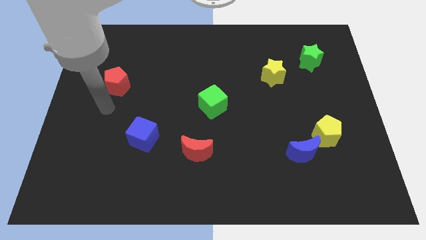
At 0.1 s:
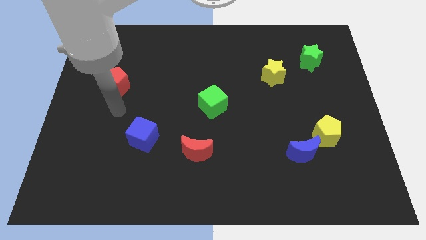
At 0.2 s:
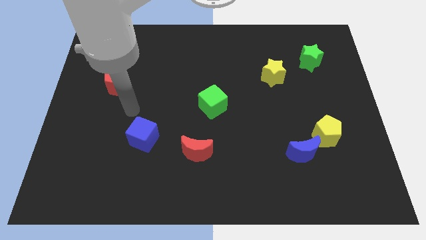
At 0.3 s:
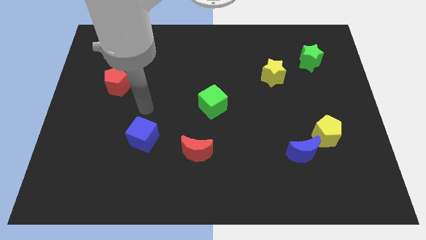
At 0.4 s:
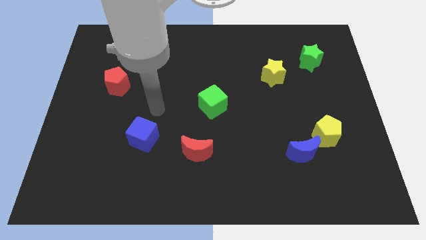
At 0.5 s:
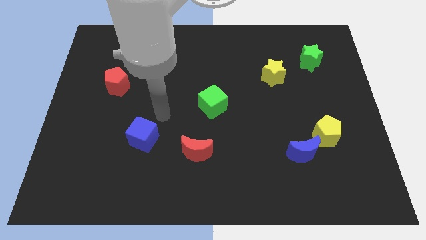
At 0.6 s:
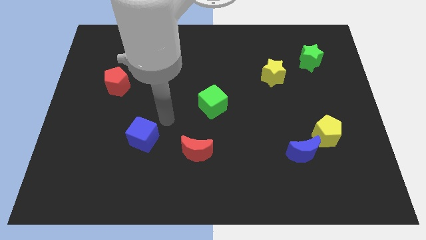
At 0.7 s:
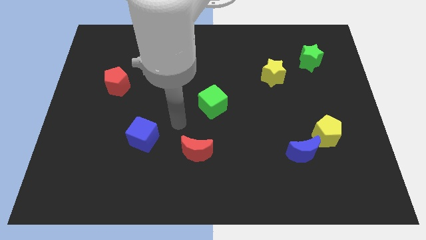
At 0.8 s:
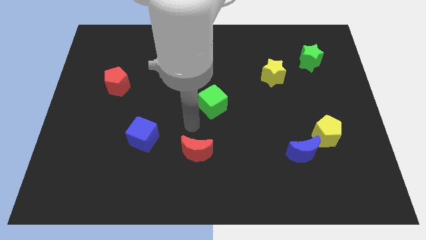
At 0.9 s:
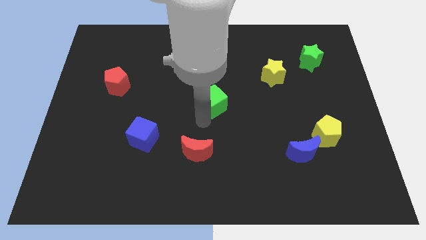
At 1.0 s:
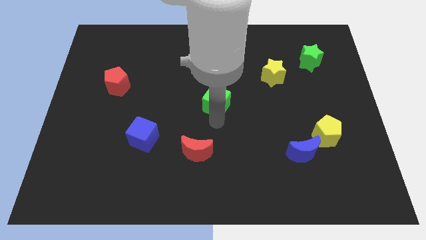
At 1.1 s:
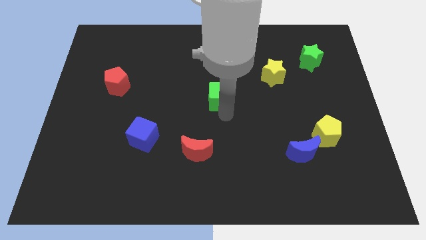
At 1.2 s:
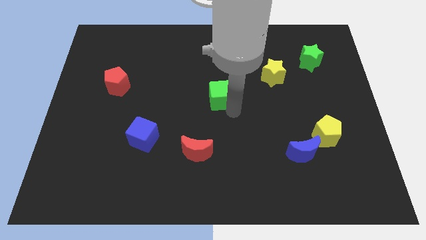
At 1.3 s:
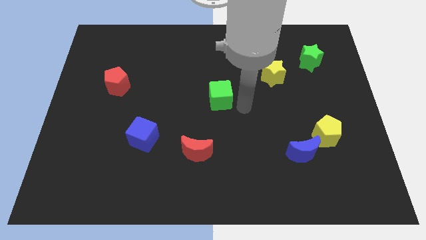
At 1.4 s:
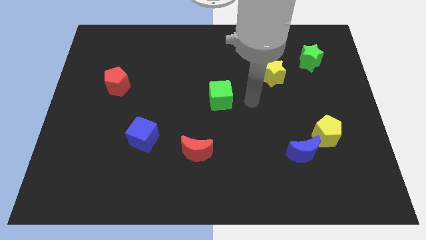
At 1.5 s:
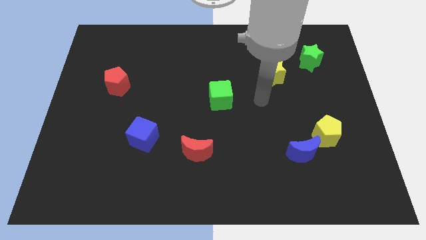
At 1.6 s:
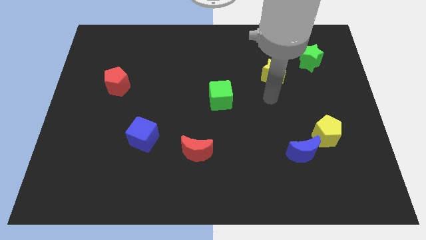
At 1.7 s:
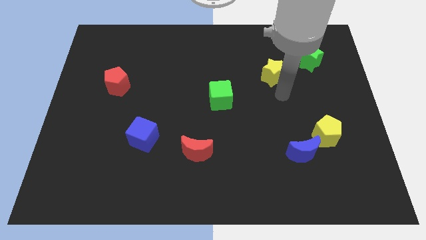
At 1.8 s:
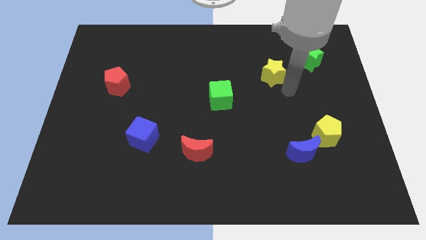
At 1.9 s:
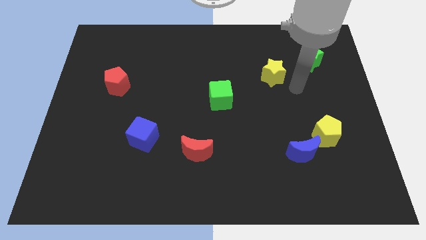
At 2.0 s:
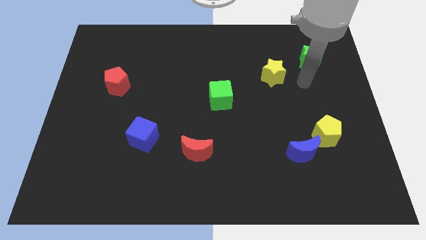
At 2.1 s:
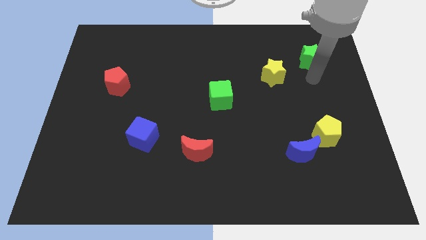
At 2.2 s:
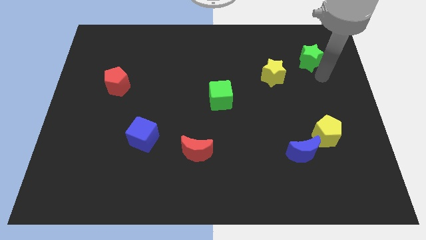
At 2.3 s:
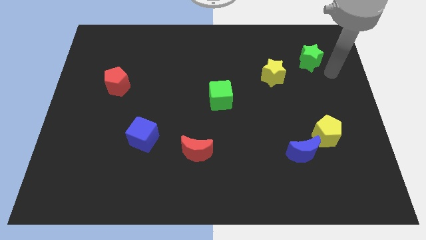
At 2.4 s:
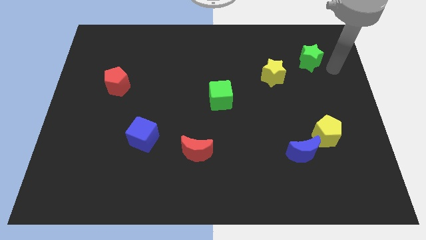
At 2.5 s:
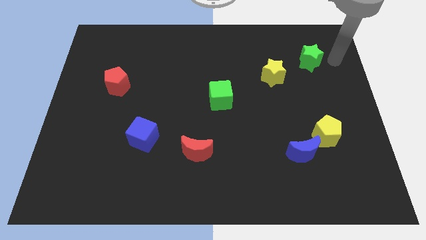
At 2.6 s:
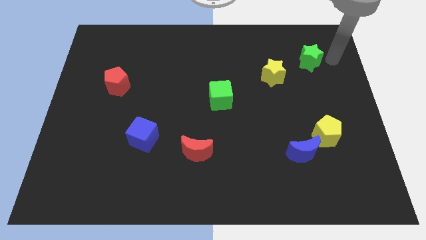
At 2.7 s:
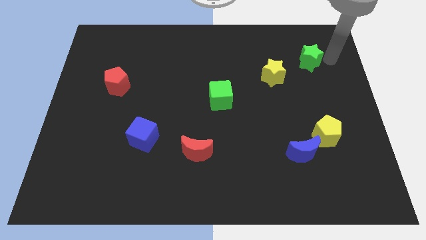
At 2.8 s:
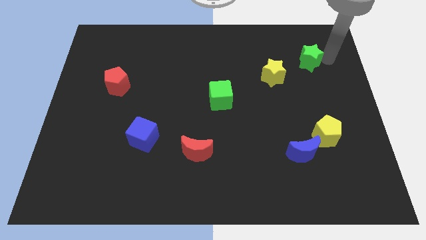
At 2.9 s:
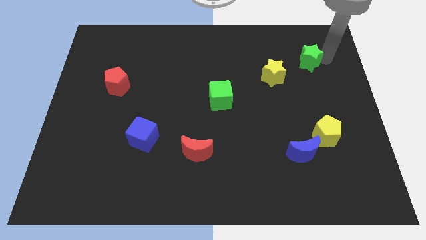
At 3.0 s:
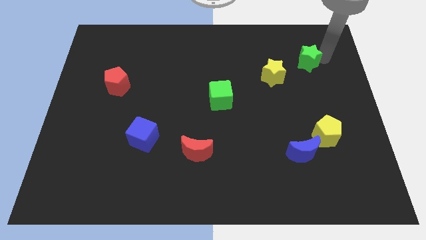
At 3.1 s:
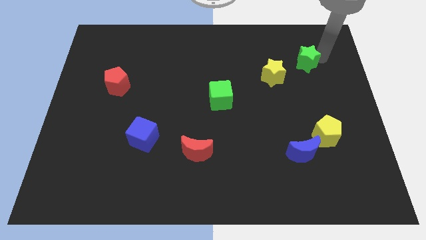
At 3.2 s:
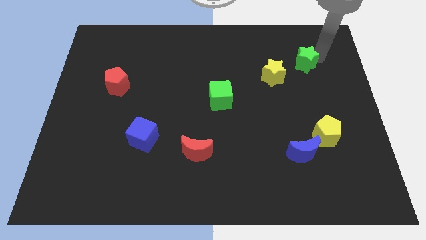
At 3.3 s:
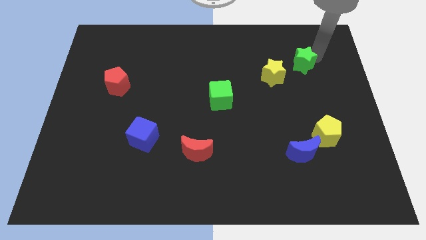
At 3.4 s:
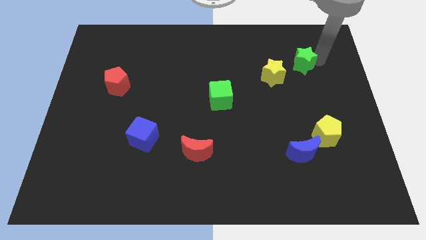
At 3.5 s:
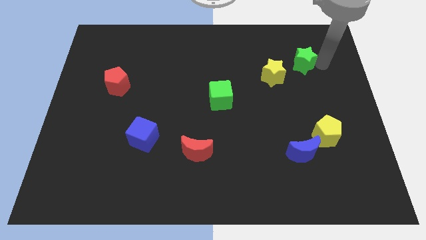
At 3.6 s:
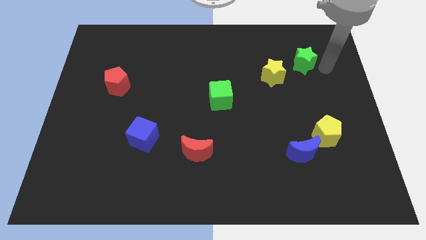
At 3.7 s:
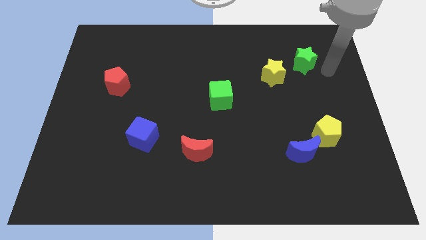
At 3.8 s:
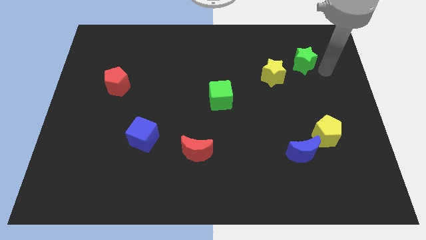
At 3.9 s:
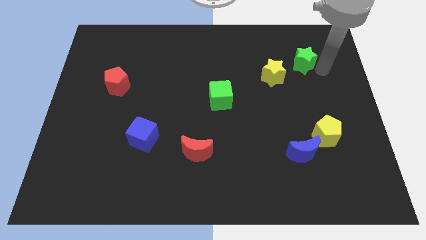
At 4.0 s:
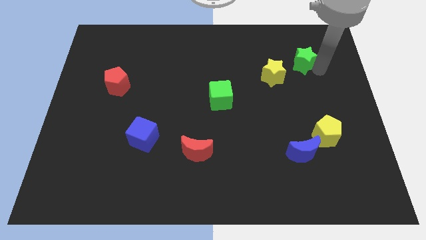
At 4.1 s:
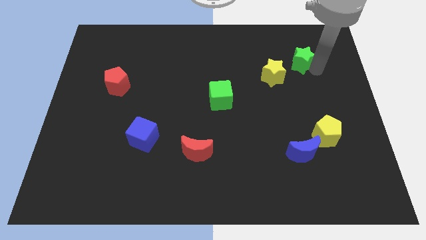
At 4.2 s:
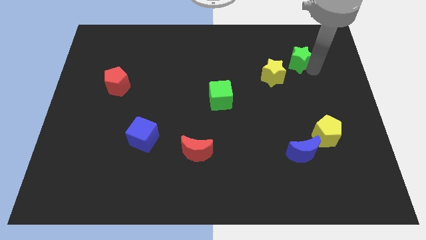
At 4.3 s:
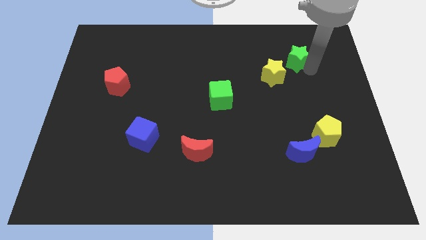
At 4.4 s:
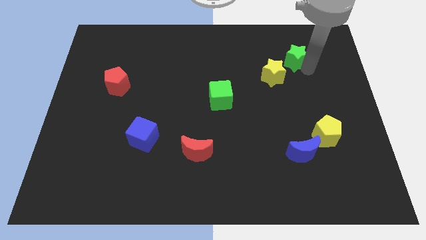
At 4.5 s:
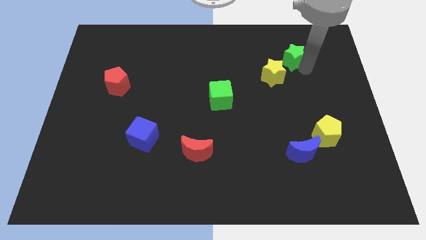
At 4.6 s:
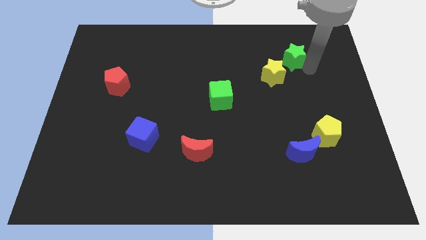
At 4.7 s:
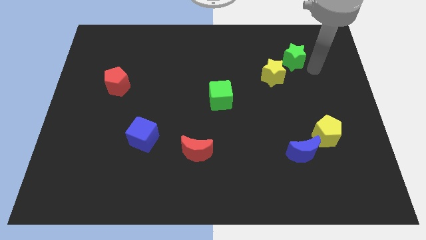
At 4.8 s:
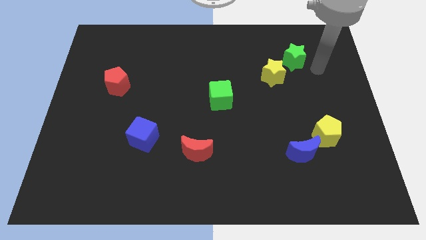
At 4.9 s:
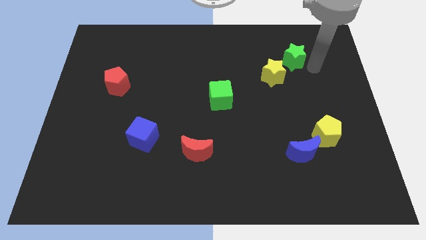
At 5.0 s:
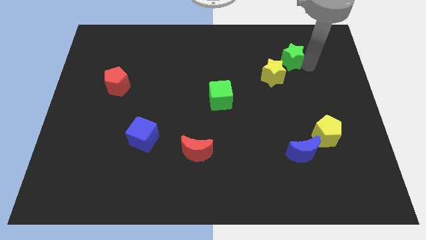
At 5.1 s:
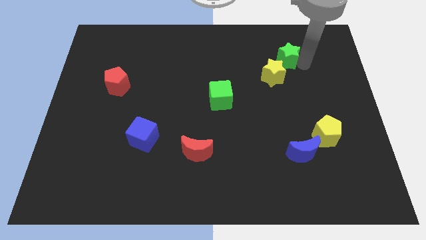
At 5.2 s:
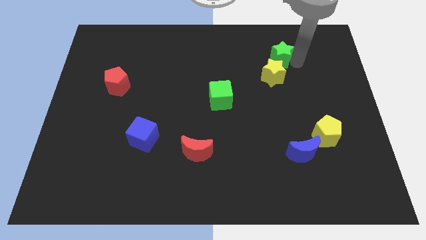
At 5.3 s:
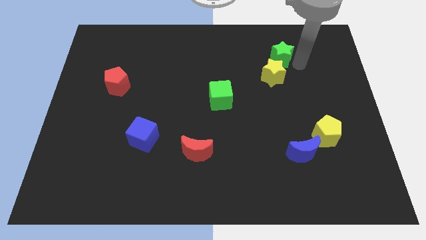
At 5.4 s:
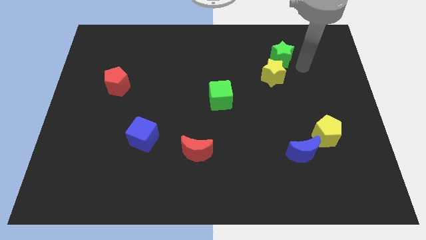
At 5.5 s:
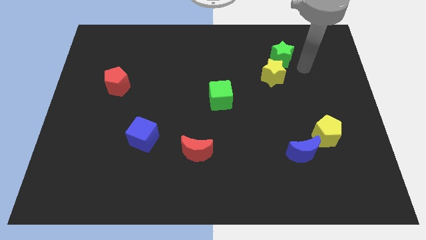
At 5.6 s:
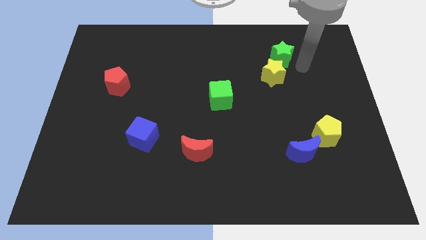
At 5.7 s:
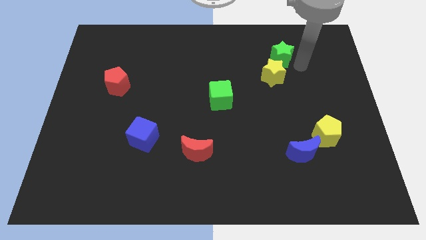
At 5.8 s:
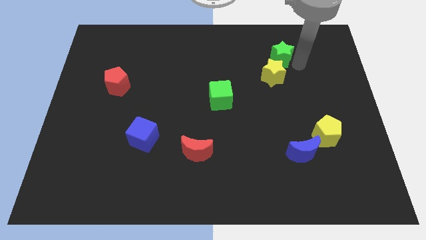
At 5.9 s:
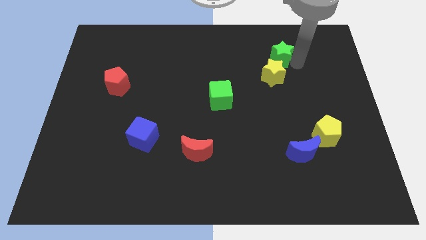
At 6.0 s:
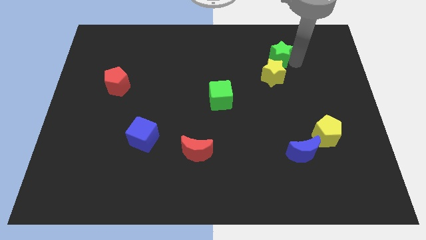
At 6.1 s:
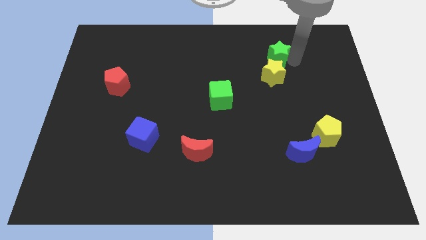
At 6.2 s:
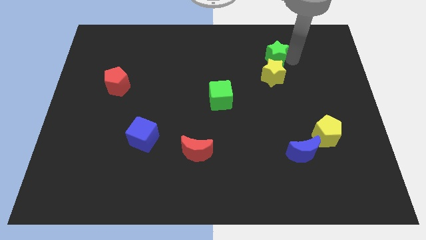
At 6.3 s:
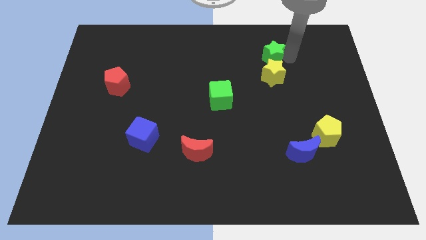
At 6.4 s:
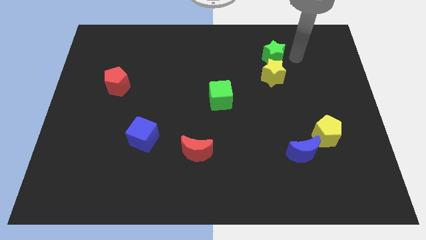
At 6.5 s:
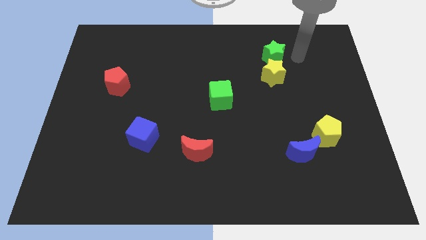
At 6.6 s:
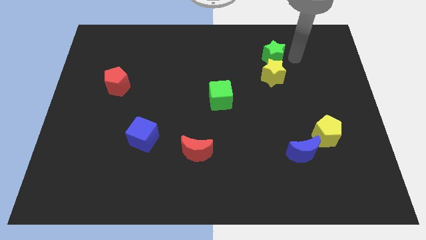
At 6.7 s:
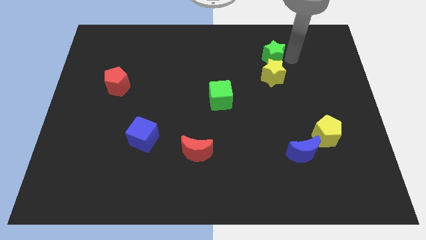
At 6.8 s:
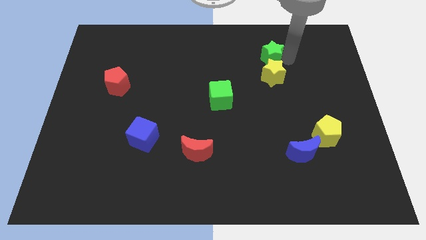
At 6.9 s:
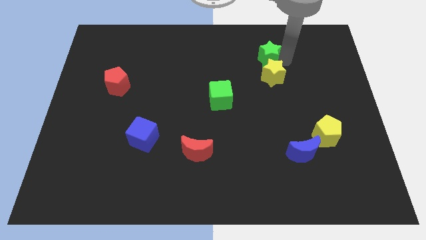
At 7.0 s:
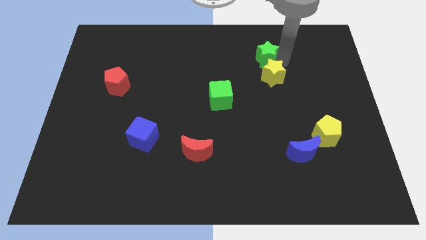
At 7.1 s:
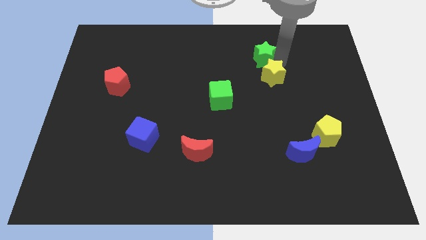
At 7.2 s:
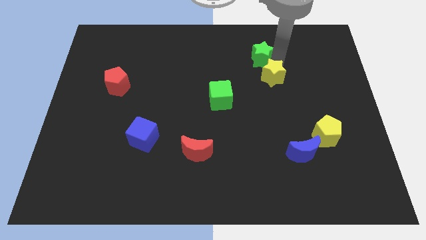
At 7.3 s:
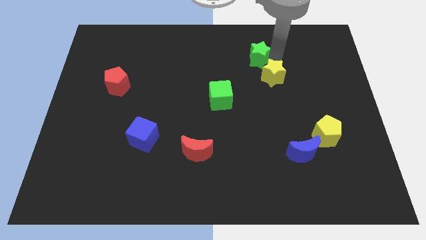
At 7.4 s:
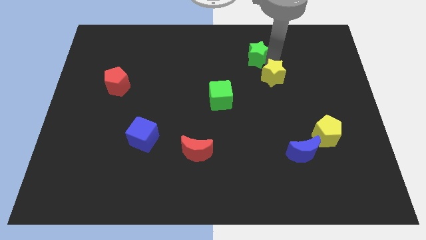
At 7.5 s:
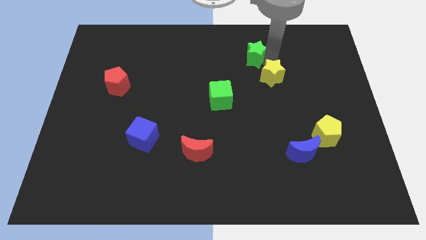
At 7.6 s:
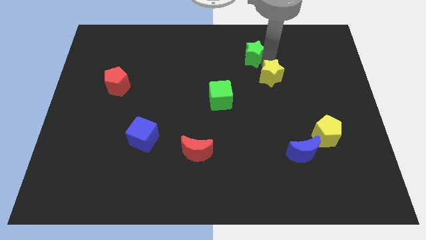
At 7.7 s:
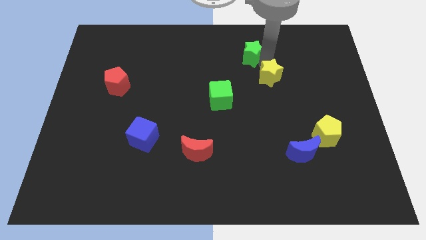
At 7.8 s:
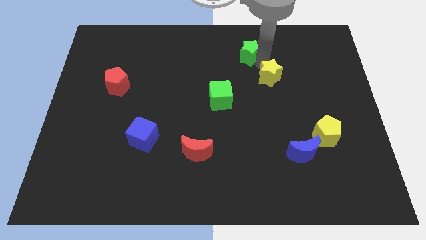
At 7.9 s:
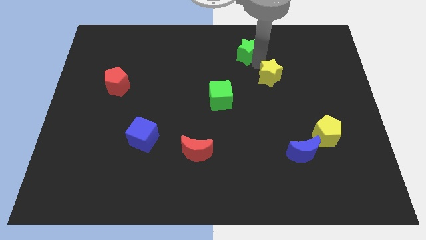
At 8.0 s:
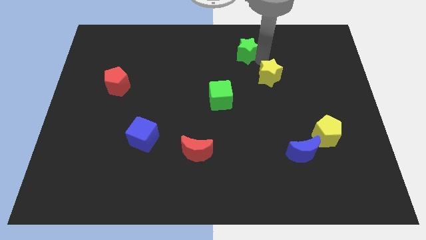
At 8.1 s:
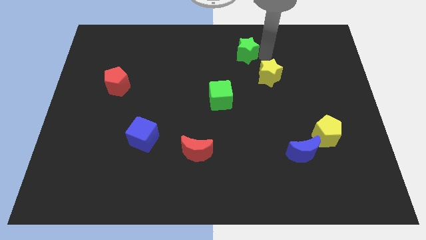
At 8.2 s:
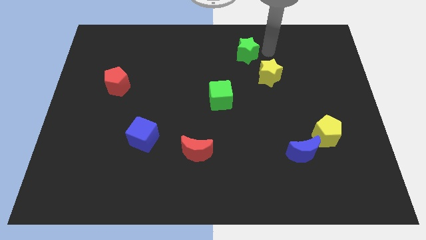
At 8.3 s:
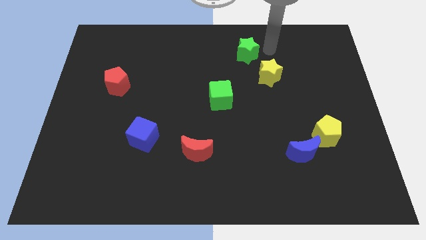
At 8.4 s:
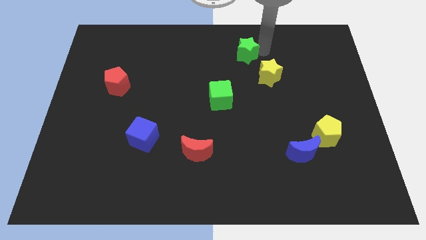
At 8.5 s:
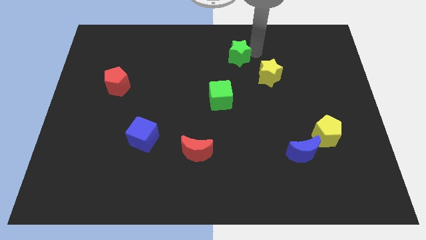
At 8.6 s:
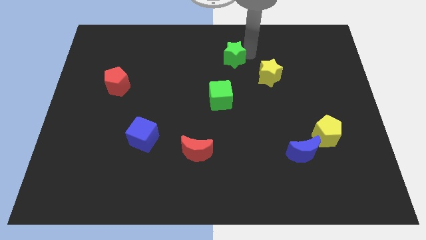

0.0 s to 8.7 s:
move the green star left
